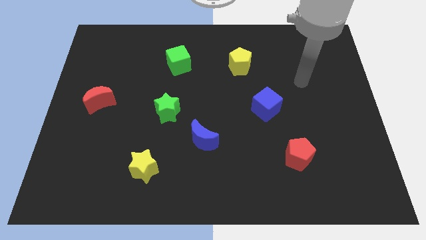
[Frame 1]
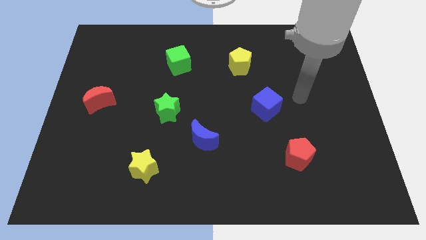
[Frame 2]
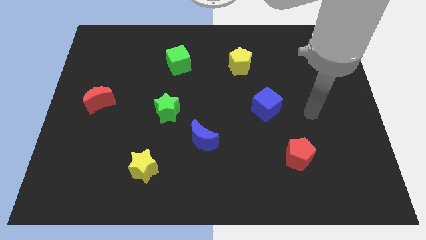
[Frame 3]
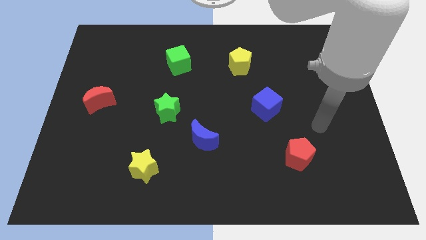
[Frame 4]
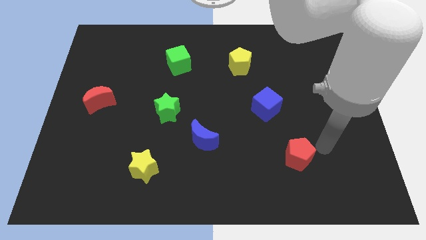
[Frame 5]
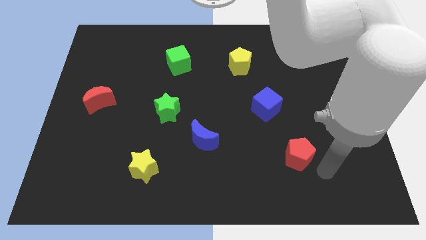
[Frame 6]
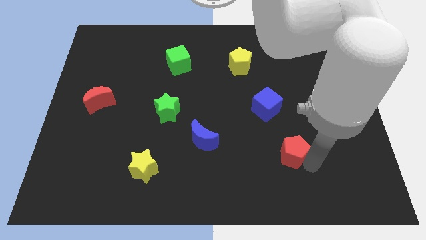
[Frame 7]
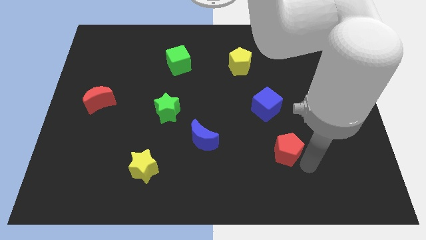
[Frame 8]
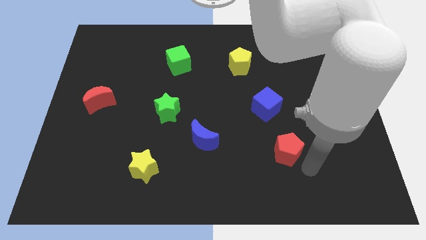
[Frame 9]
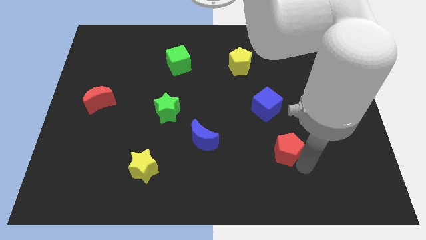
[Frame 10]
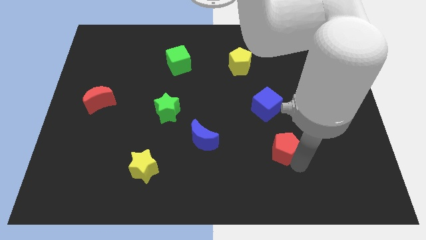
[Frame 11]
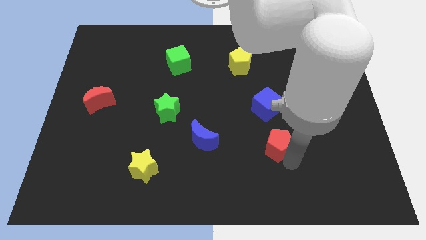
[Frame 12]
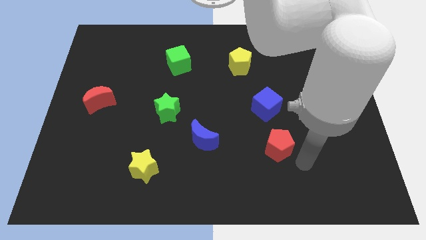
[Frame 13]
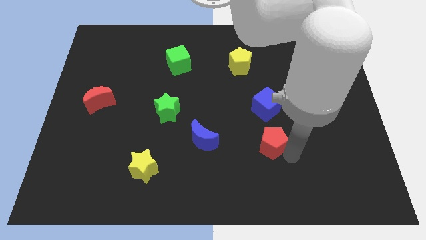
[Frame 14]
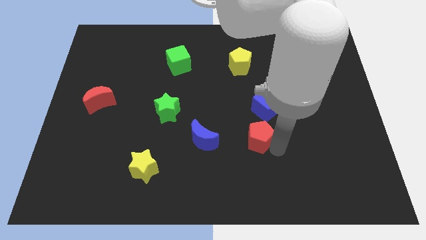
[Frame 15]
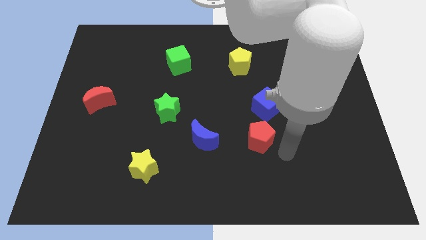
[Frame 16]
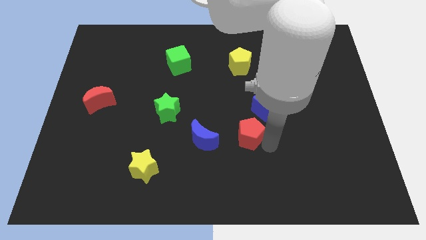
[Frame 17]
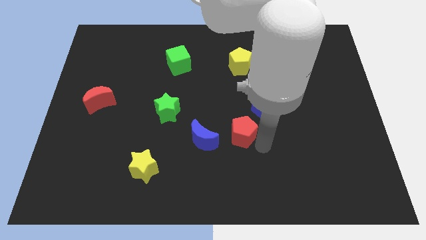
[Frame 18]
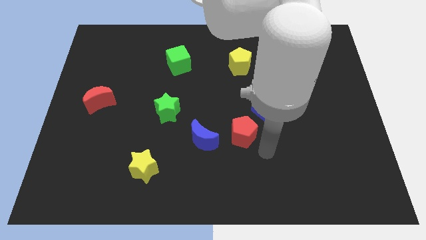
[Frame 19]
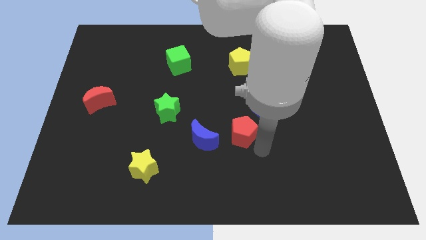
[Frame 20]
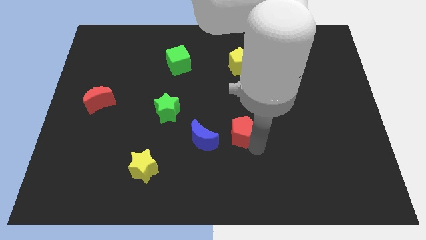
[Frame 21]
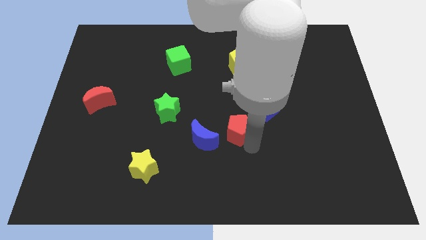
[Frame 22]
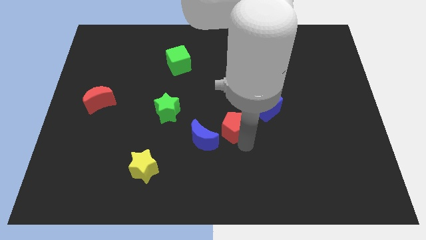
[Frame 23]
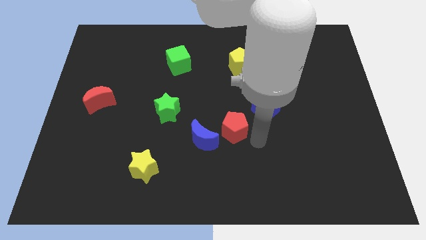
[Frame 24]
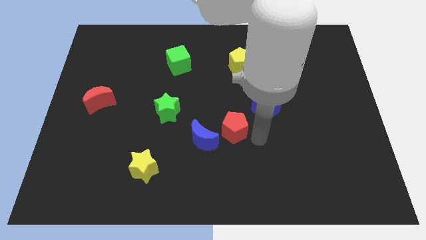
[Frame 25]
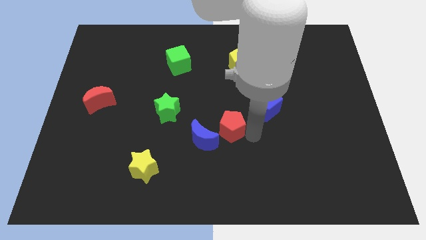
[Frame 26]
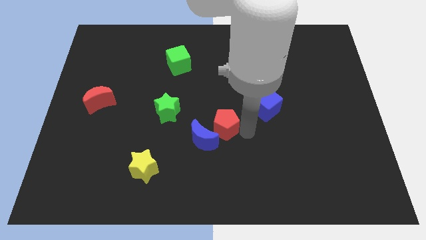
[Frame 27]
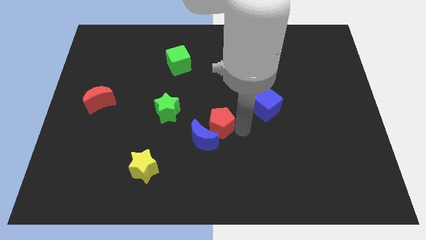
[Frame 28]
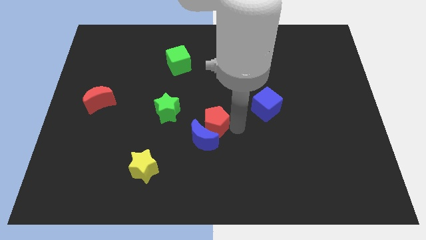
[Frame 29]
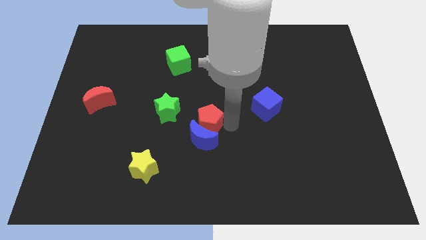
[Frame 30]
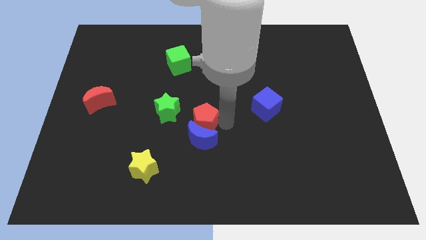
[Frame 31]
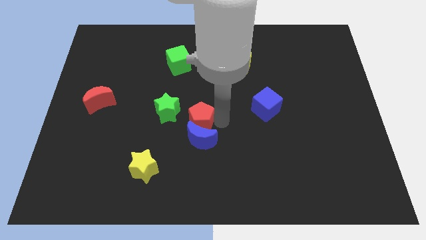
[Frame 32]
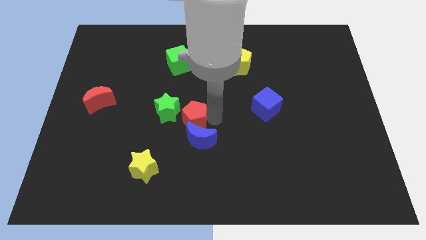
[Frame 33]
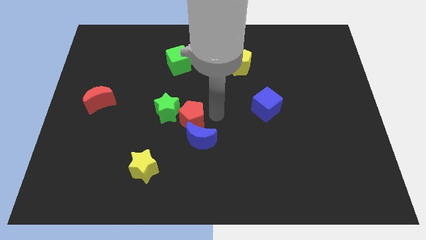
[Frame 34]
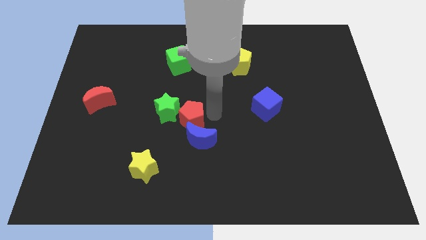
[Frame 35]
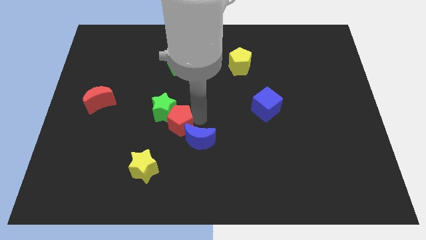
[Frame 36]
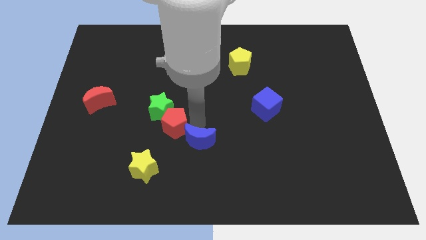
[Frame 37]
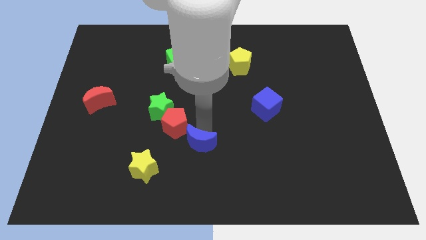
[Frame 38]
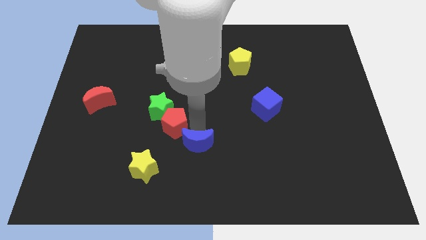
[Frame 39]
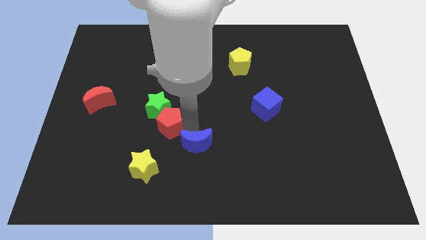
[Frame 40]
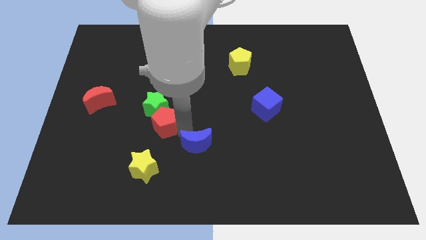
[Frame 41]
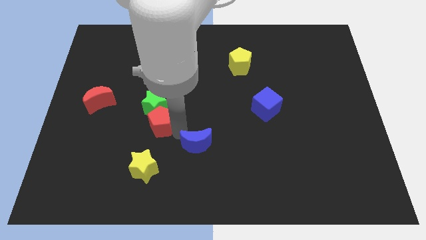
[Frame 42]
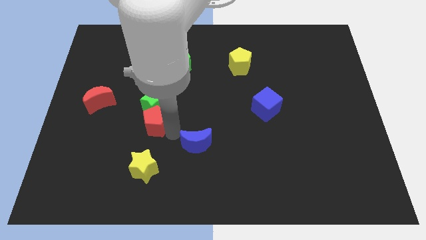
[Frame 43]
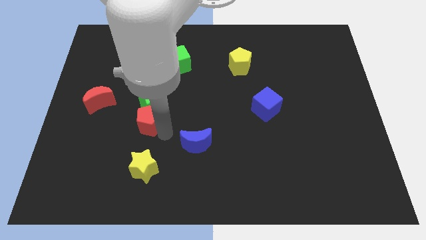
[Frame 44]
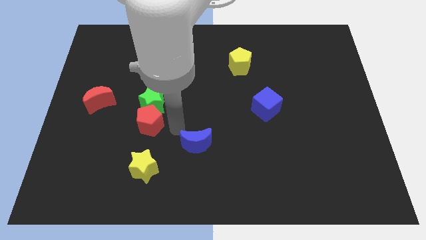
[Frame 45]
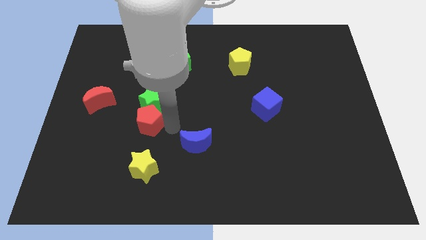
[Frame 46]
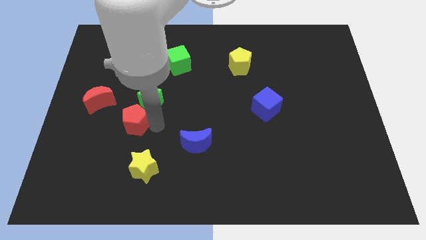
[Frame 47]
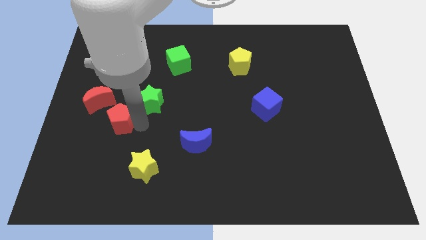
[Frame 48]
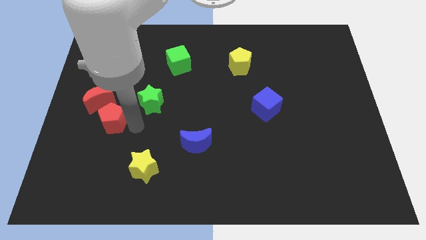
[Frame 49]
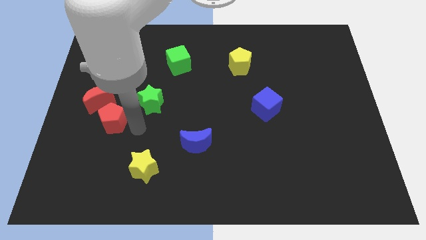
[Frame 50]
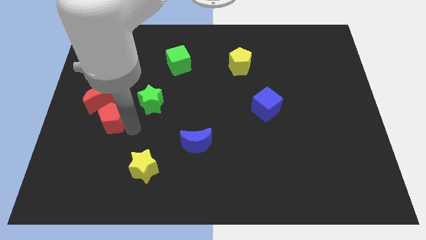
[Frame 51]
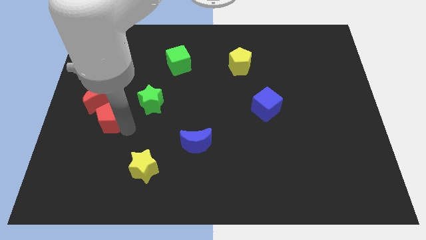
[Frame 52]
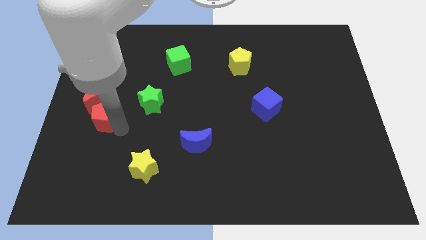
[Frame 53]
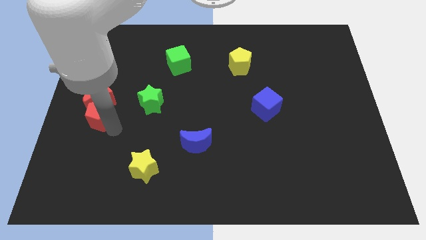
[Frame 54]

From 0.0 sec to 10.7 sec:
slide the red pentagon to the left side of the board
